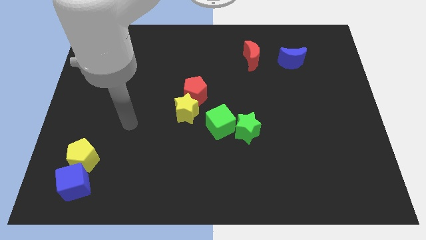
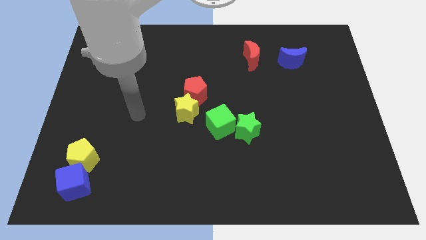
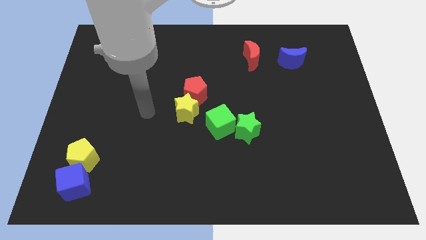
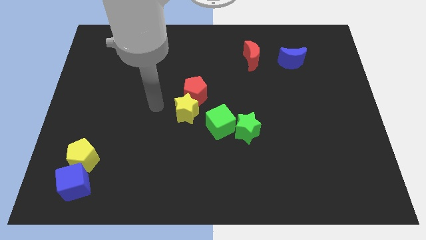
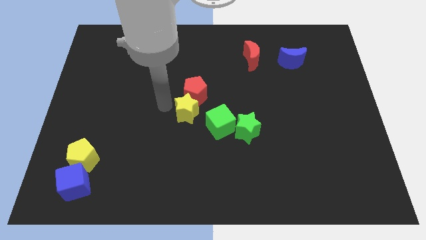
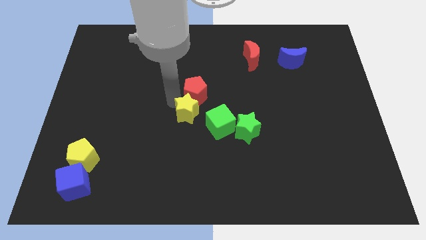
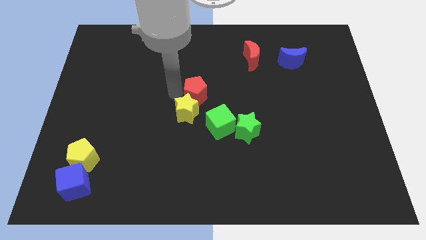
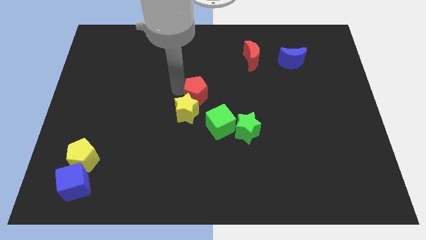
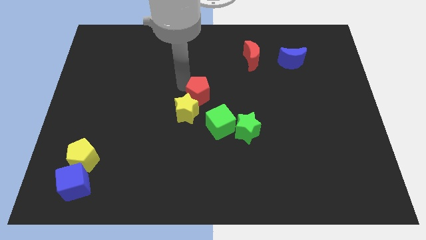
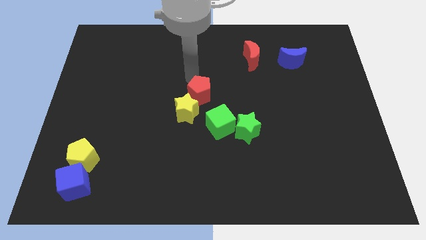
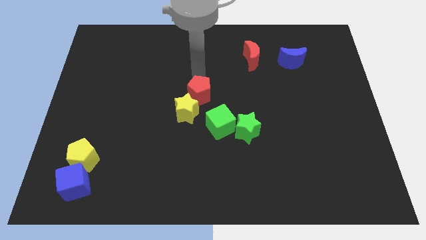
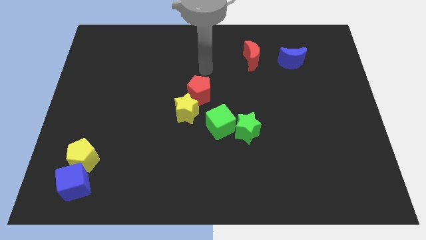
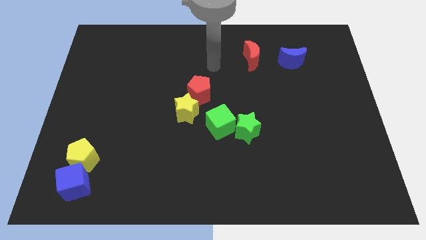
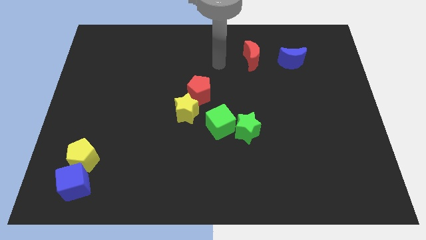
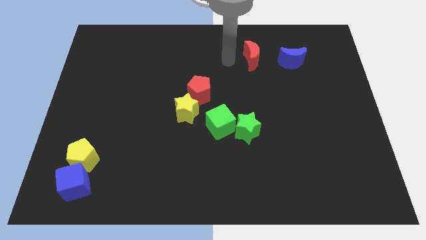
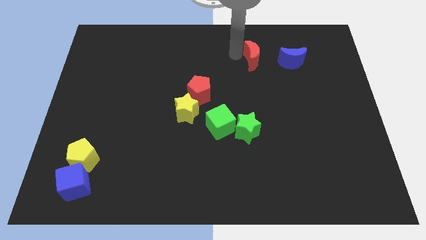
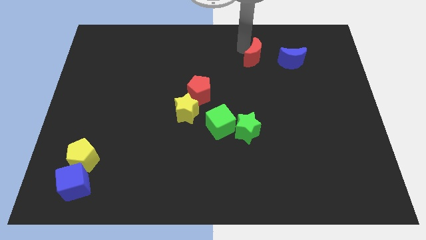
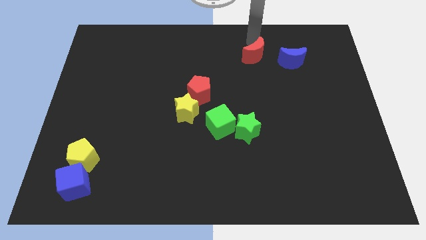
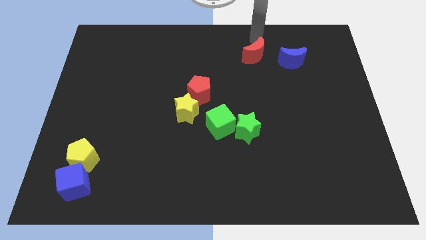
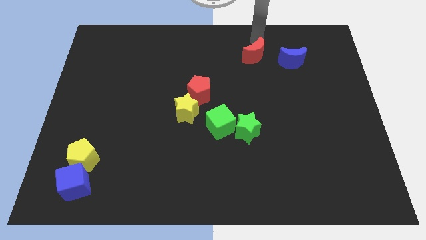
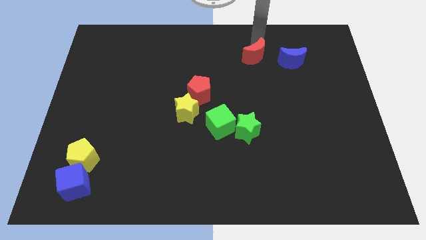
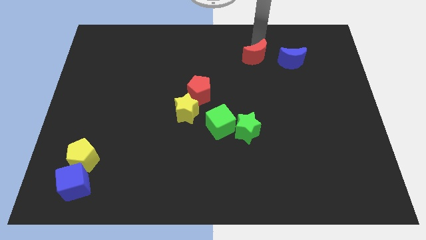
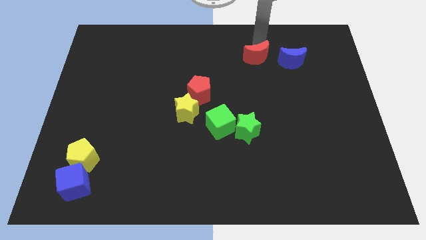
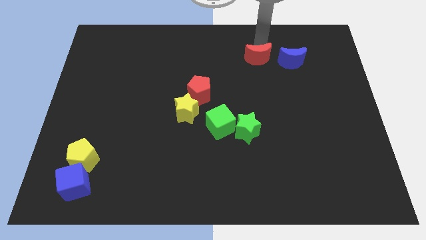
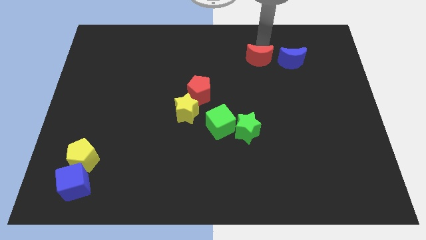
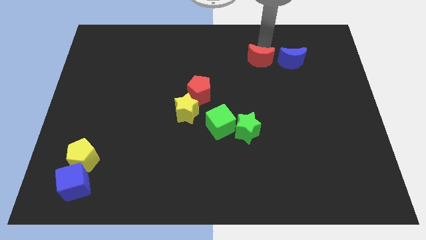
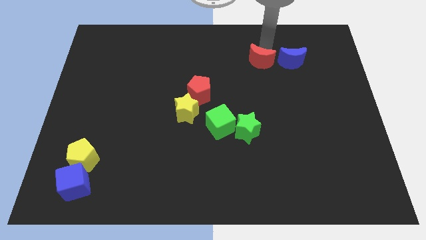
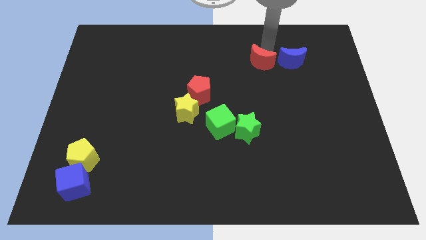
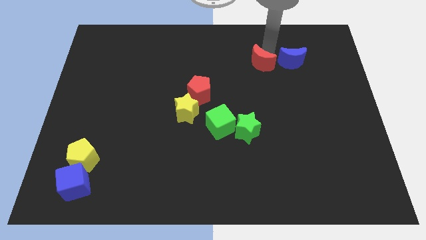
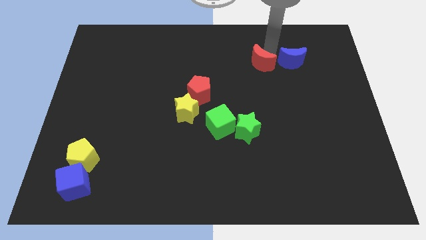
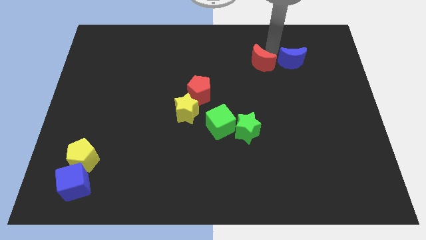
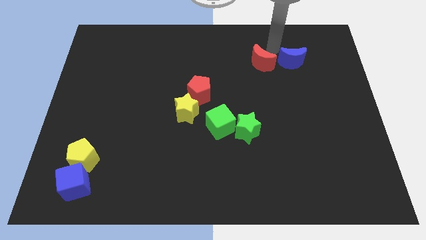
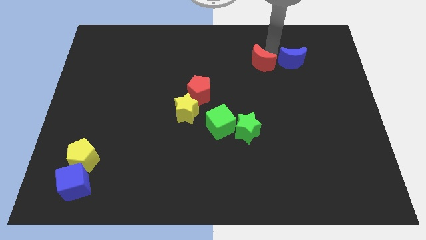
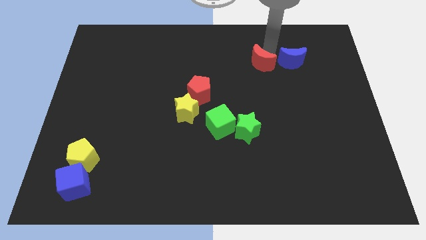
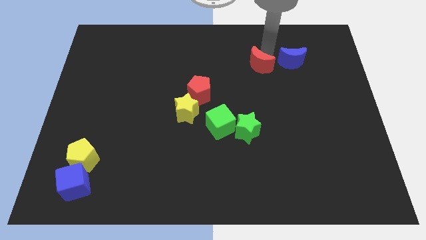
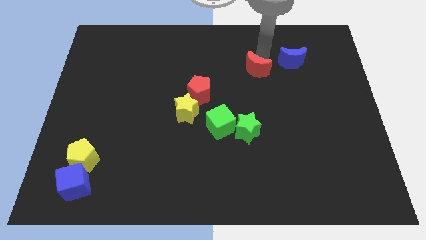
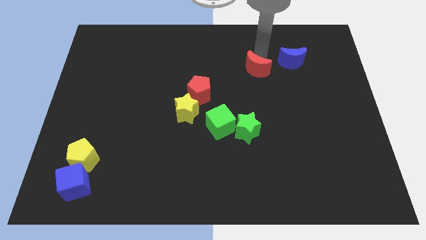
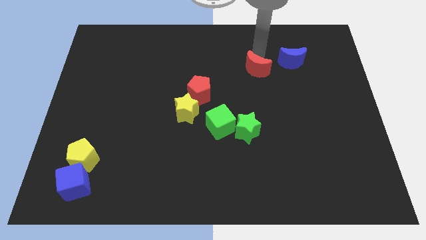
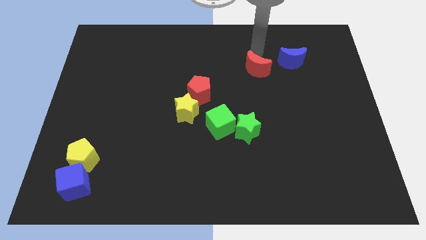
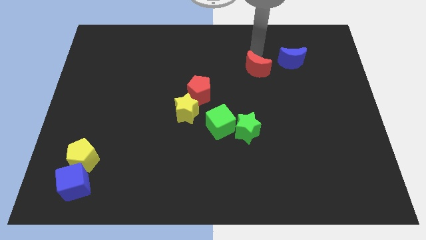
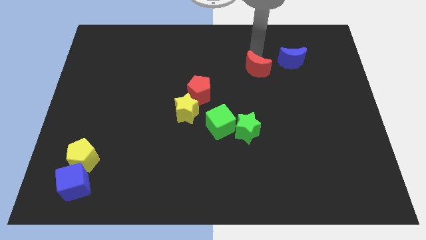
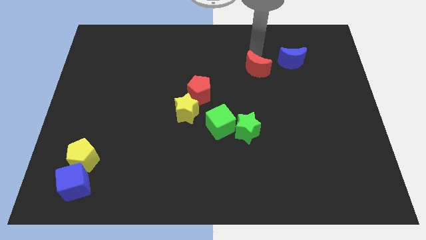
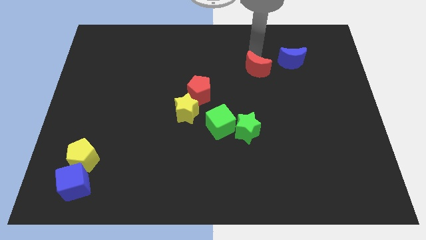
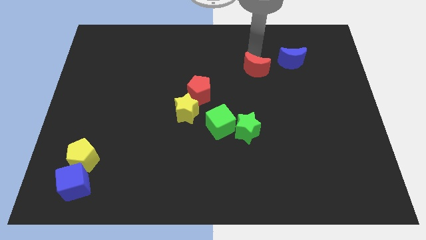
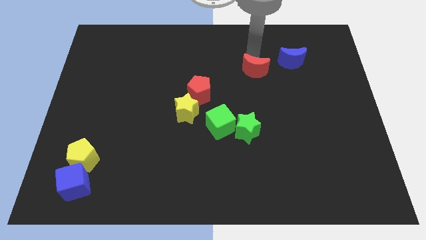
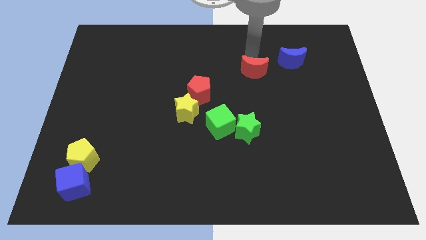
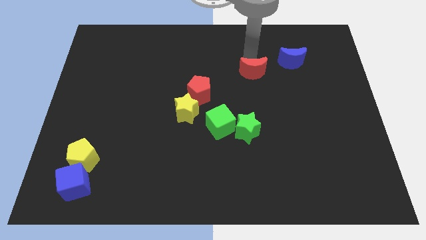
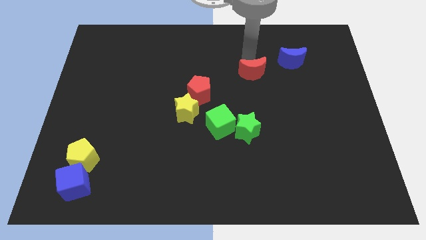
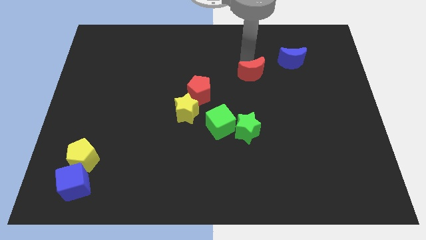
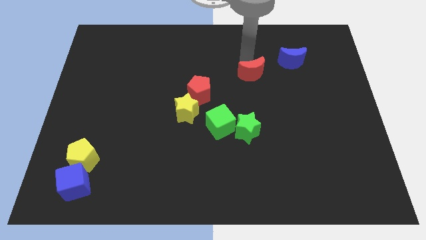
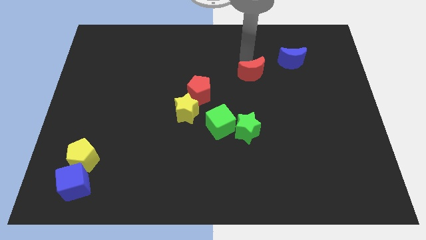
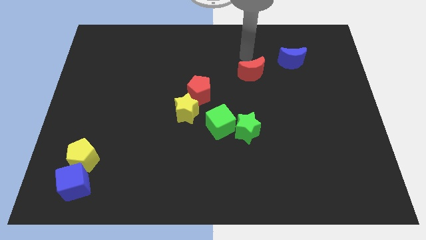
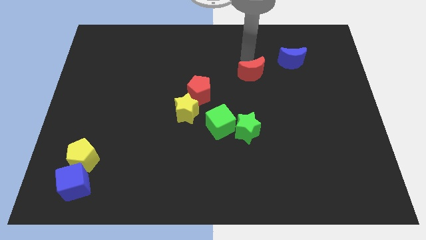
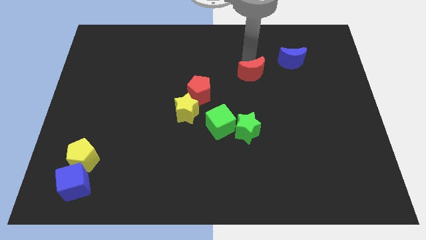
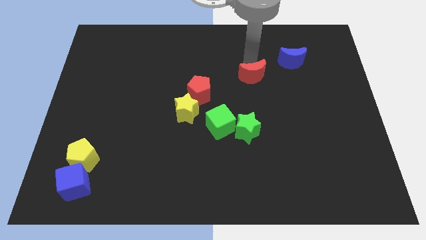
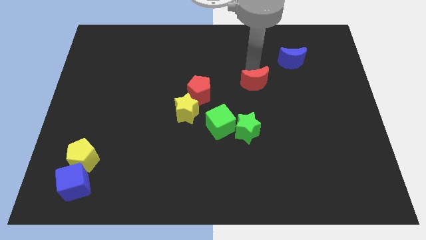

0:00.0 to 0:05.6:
slightly move the red moon downwards

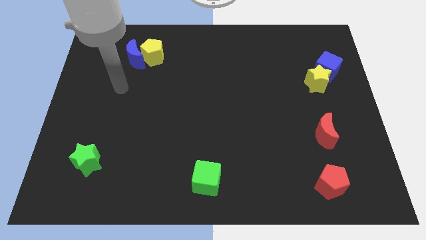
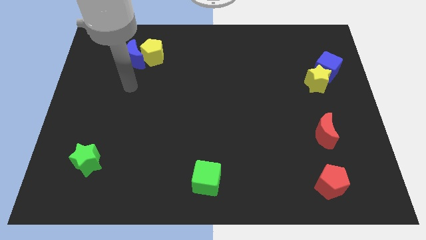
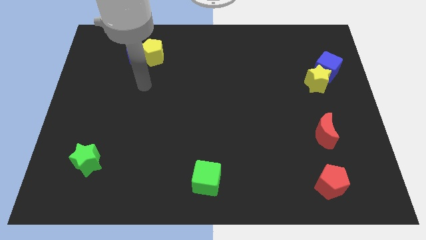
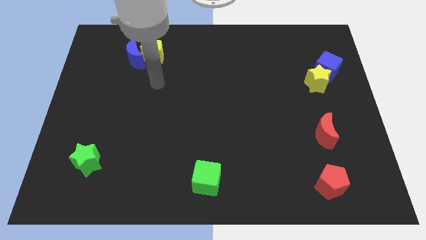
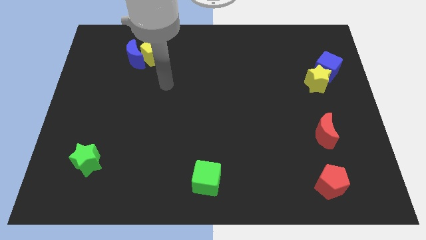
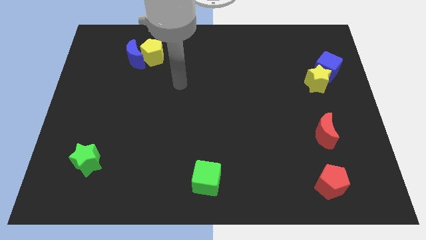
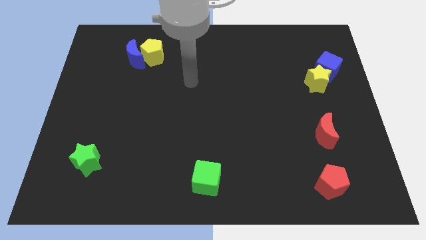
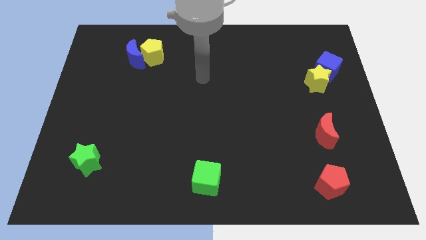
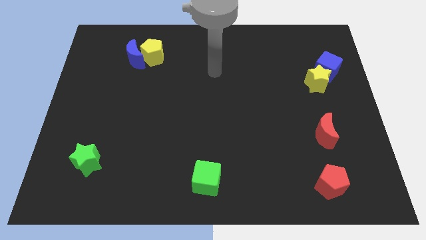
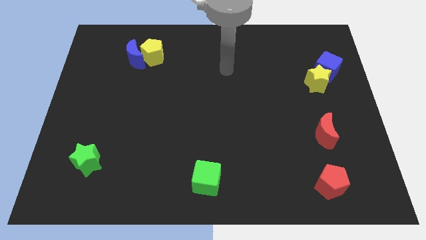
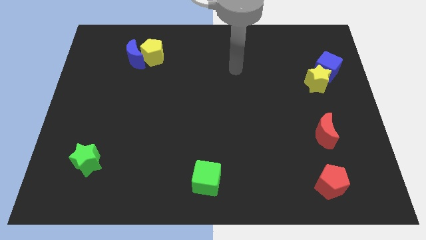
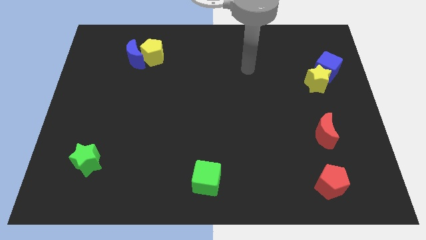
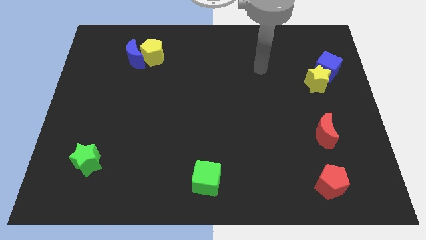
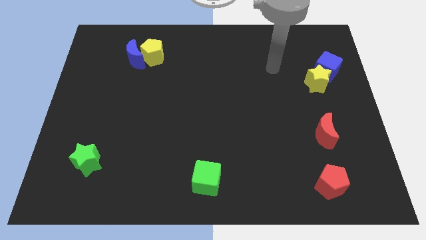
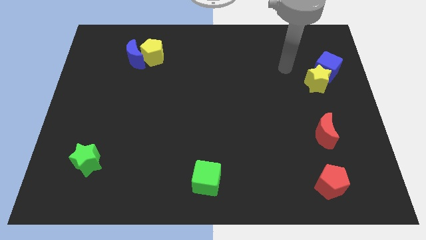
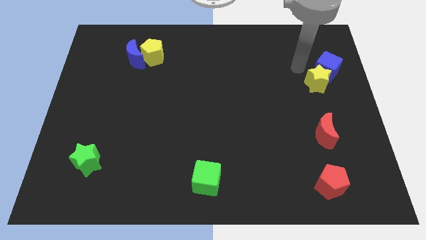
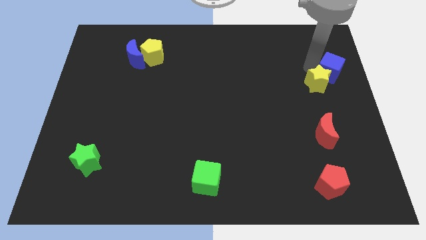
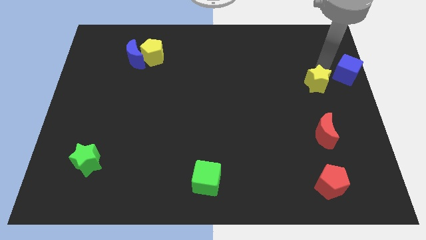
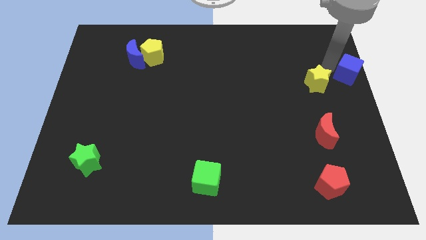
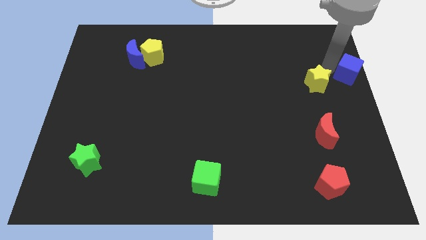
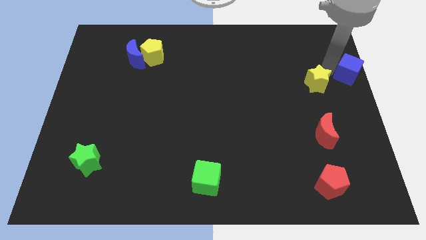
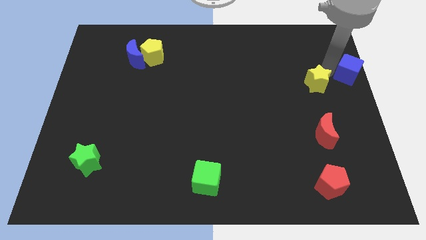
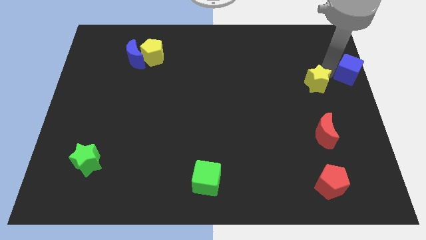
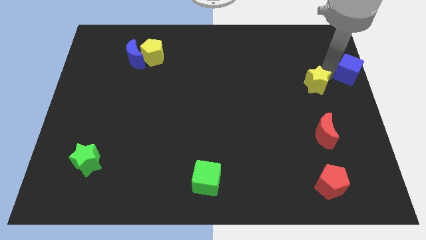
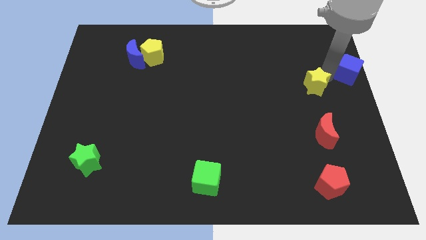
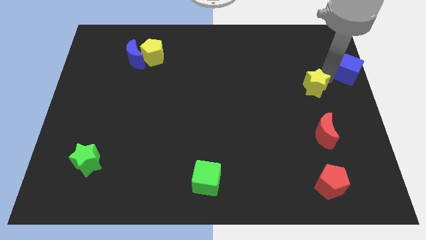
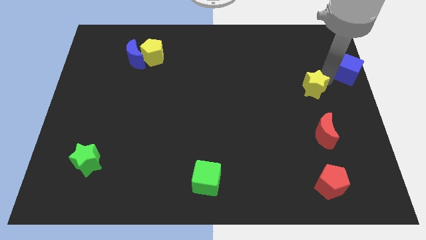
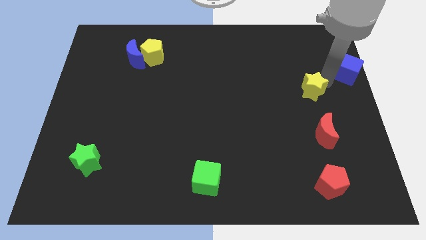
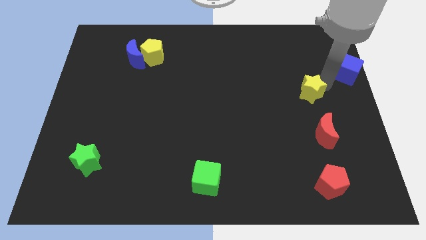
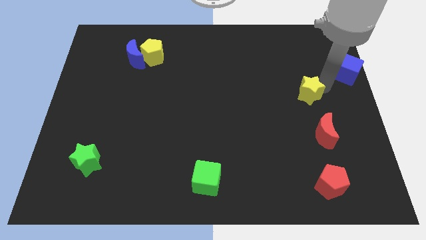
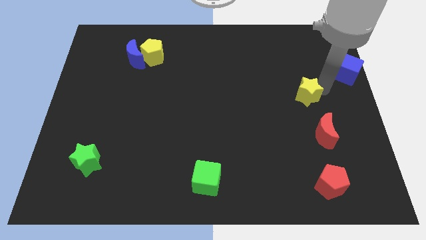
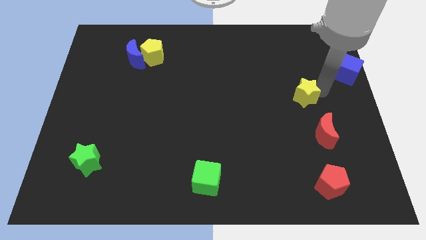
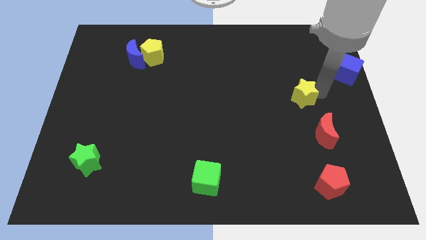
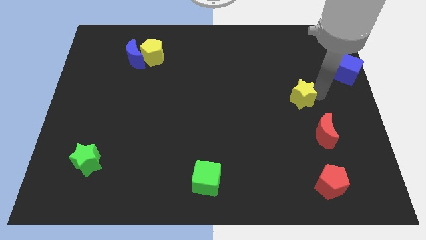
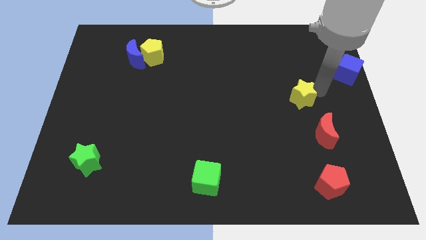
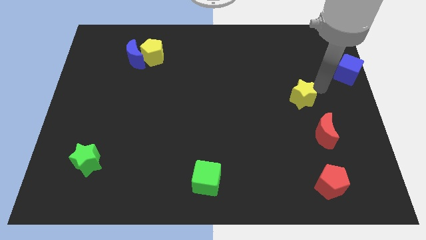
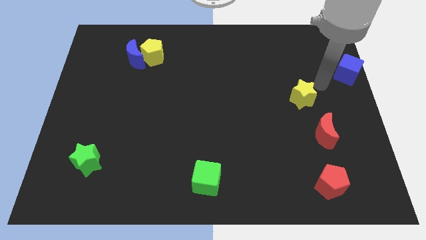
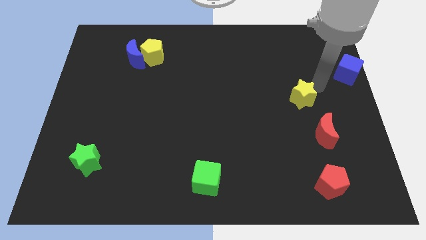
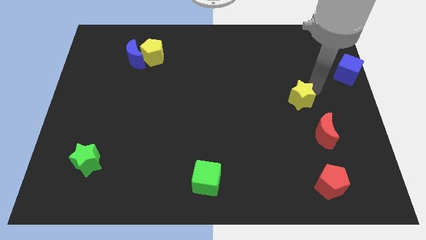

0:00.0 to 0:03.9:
slightly slide the yellow star downwards and then left
